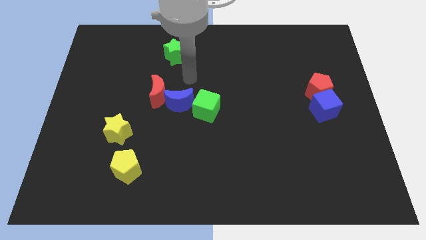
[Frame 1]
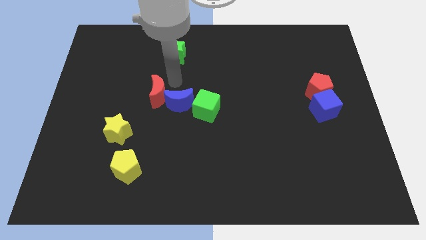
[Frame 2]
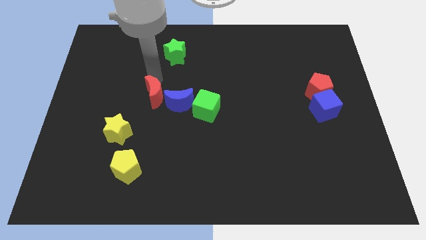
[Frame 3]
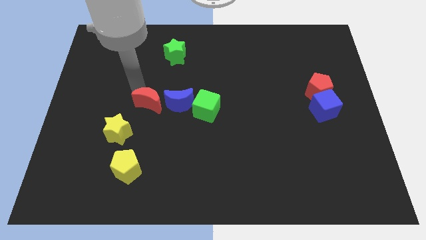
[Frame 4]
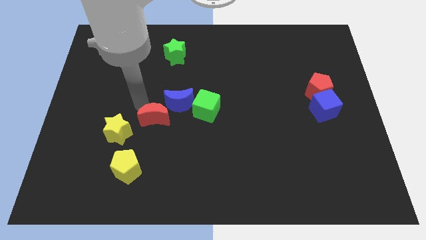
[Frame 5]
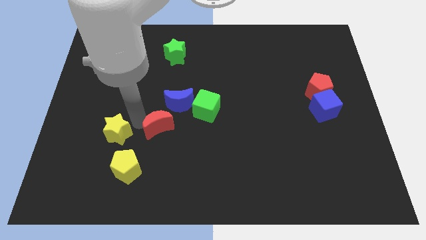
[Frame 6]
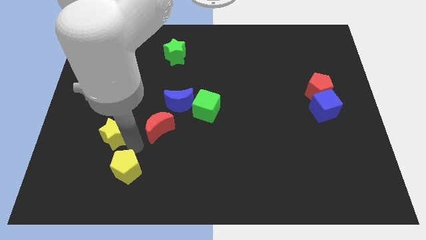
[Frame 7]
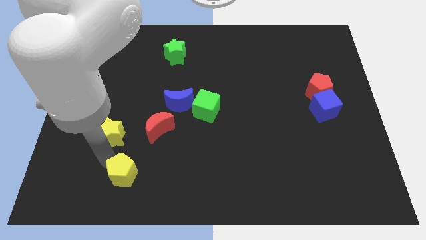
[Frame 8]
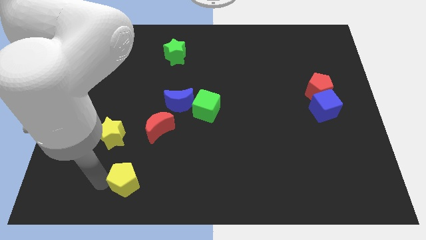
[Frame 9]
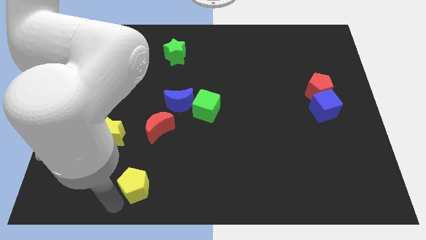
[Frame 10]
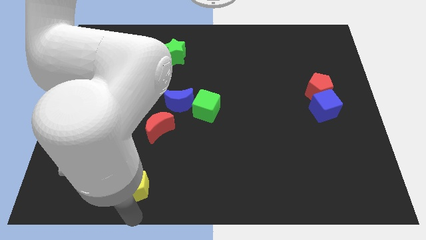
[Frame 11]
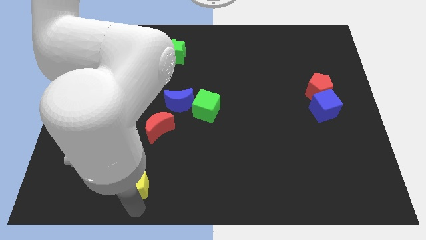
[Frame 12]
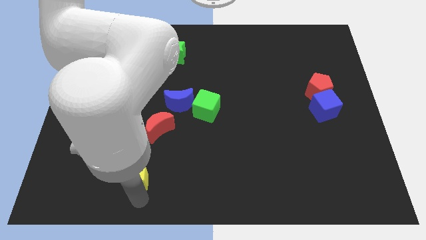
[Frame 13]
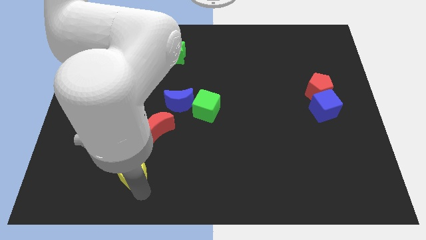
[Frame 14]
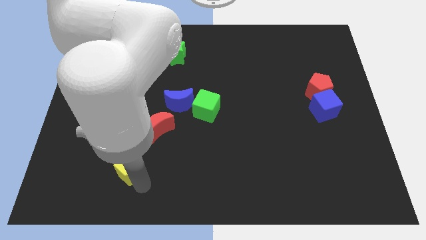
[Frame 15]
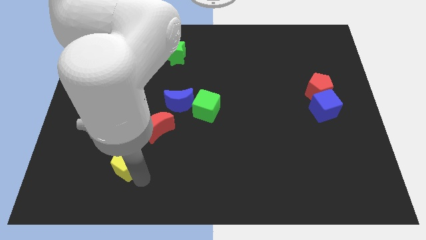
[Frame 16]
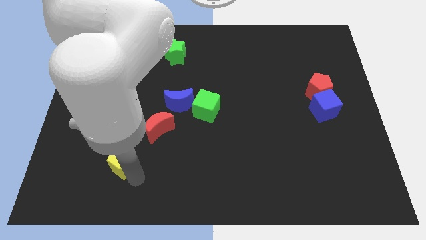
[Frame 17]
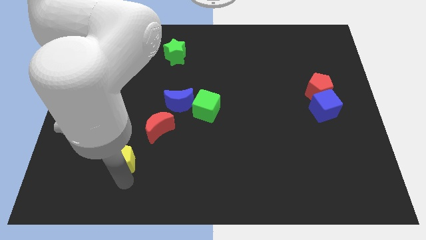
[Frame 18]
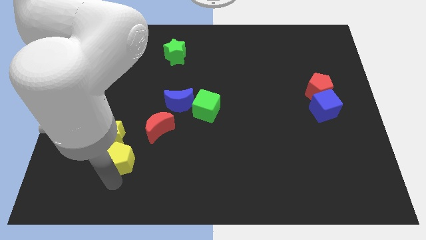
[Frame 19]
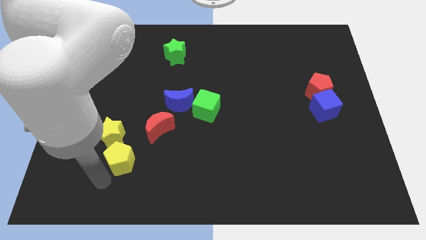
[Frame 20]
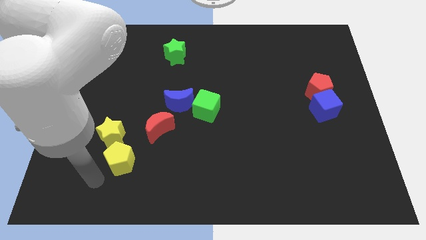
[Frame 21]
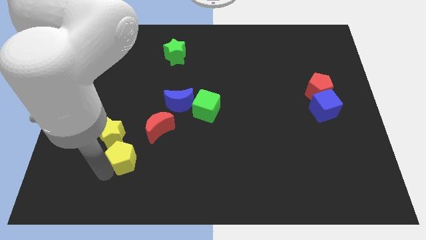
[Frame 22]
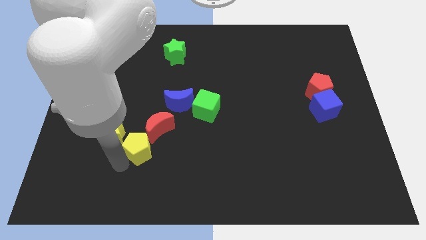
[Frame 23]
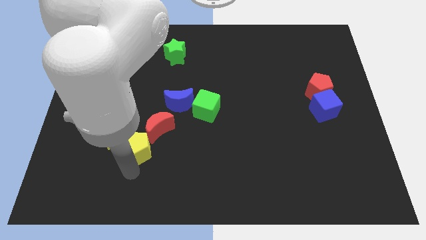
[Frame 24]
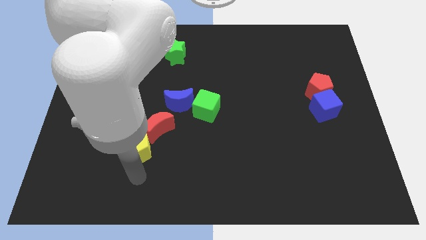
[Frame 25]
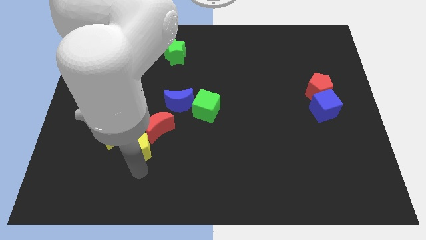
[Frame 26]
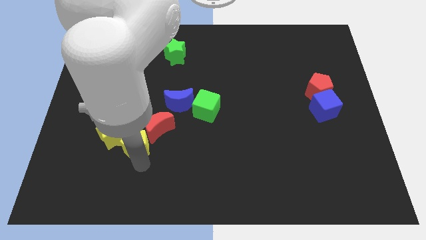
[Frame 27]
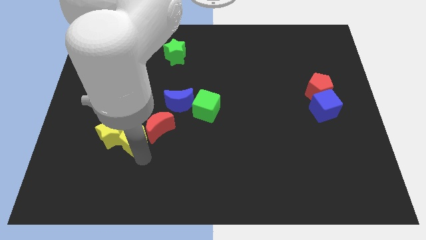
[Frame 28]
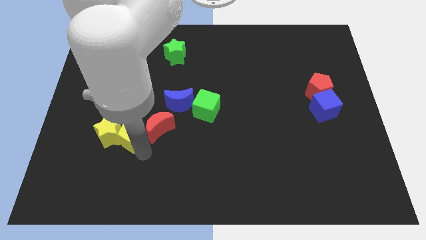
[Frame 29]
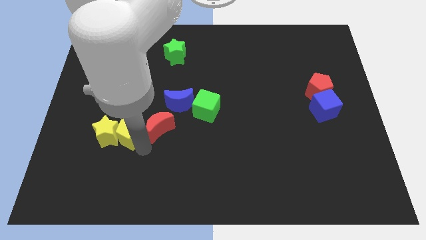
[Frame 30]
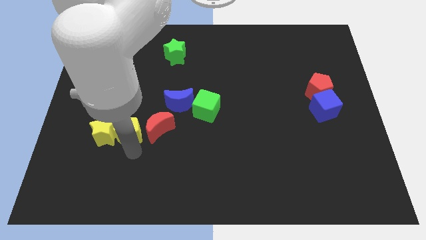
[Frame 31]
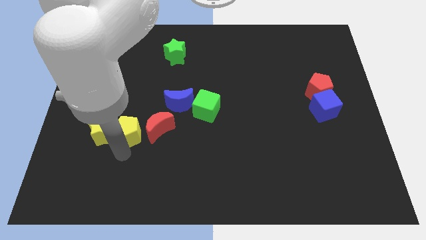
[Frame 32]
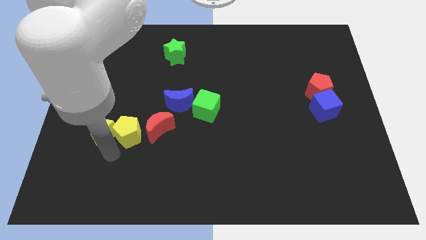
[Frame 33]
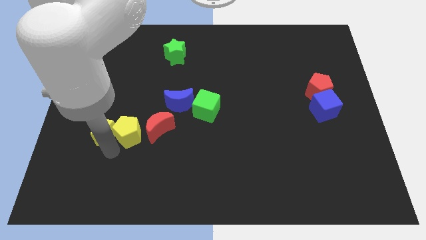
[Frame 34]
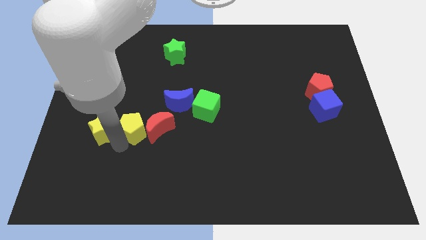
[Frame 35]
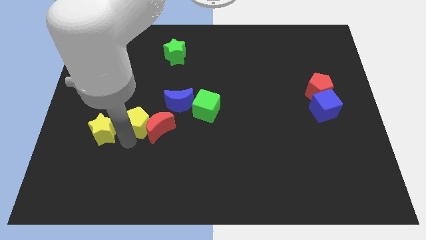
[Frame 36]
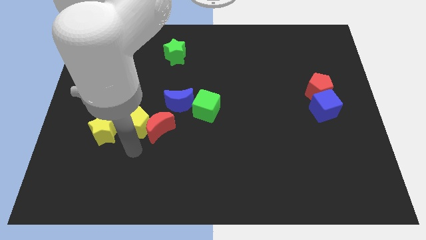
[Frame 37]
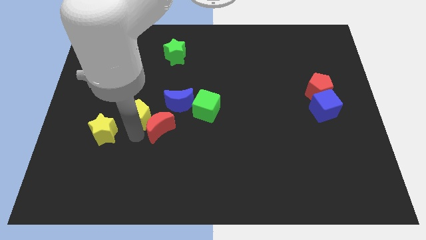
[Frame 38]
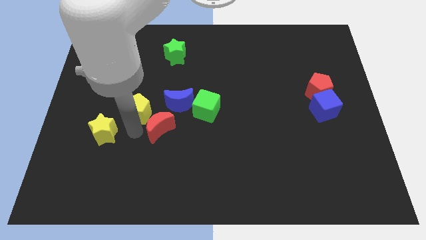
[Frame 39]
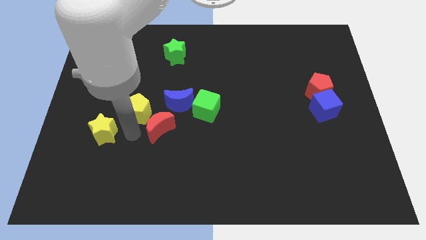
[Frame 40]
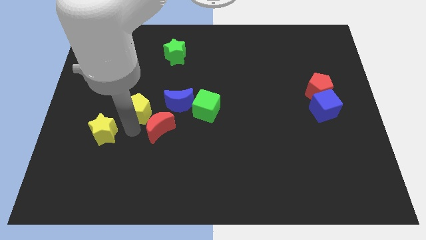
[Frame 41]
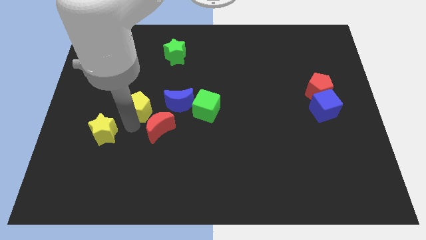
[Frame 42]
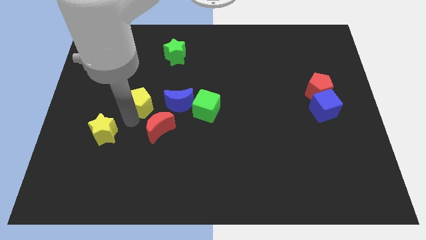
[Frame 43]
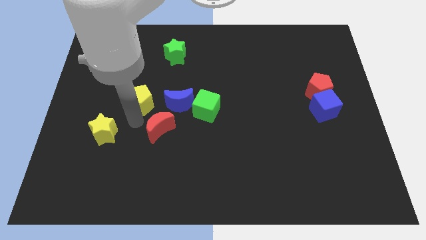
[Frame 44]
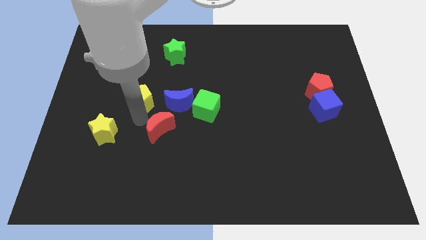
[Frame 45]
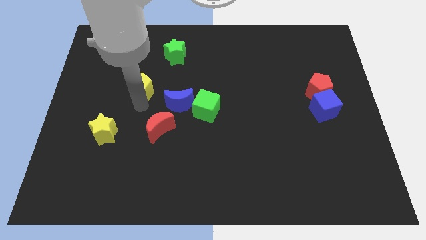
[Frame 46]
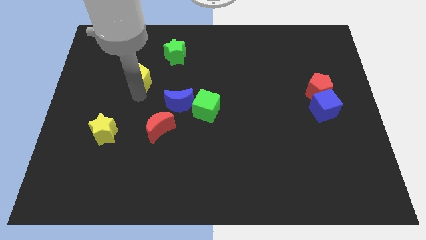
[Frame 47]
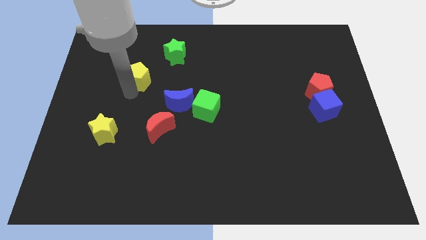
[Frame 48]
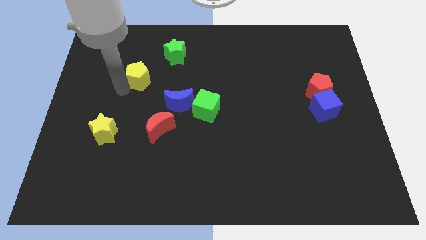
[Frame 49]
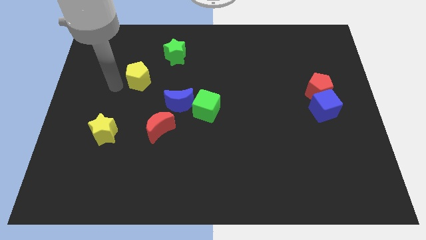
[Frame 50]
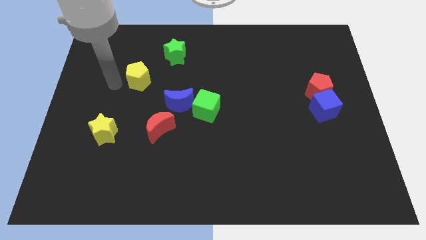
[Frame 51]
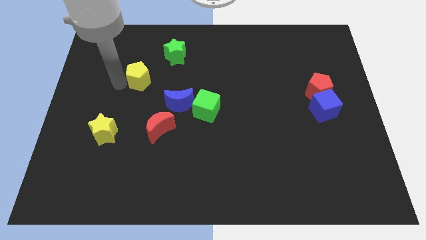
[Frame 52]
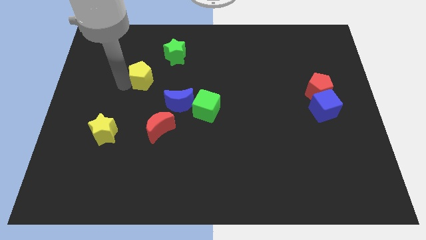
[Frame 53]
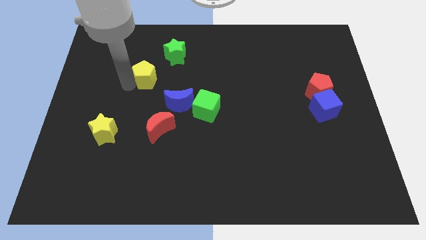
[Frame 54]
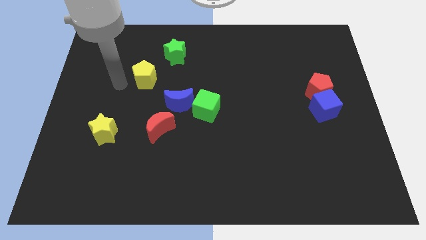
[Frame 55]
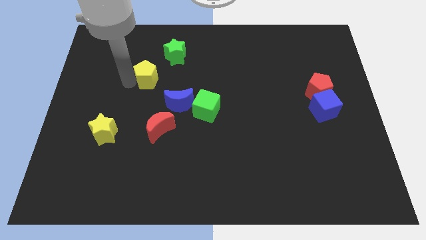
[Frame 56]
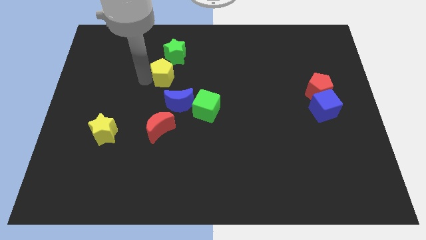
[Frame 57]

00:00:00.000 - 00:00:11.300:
put the yellow pentagon to the top of the blue moon

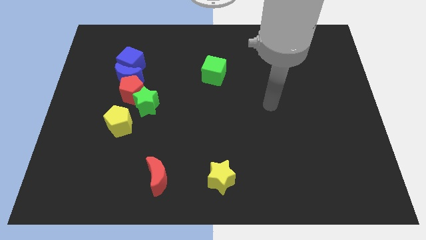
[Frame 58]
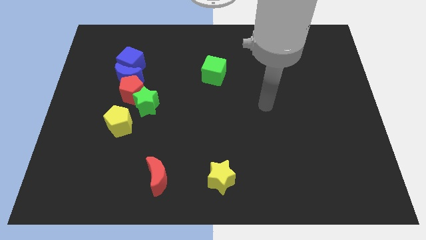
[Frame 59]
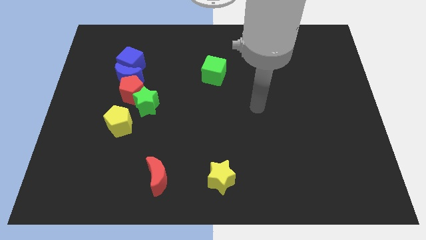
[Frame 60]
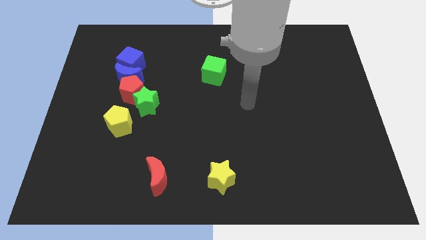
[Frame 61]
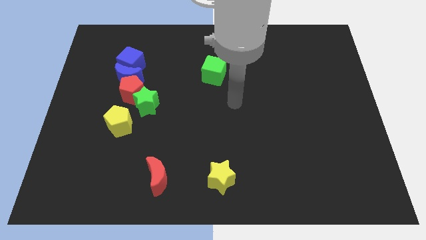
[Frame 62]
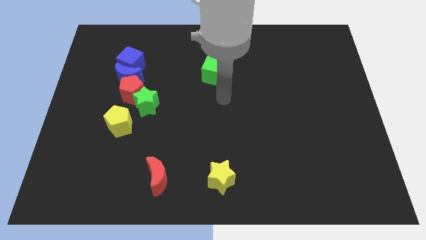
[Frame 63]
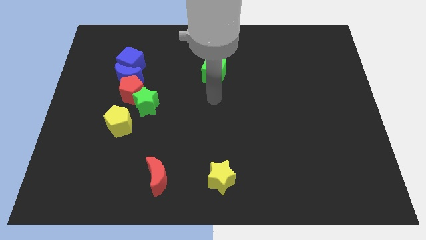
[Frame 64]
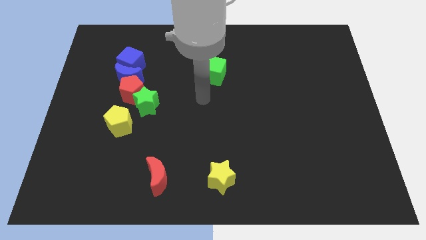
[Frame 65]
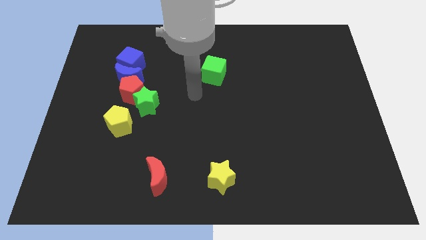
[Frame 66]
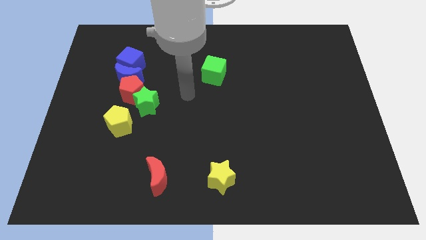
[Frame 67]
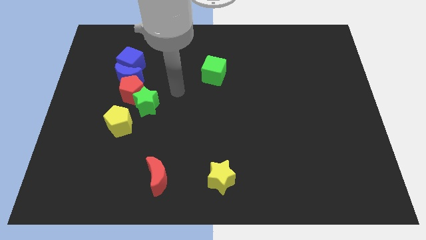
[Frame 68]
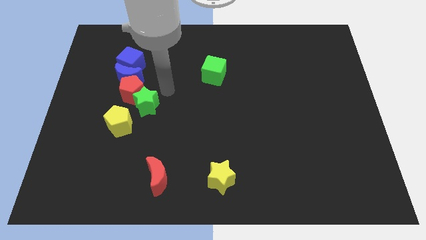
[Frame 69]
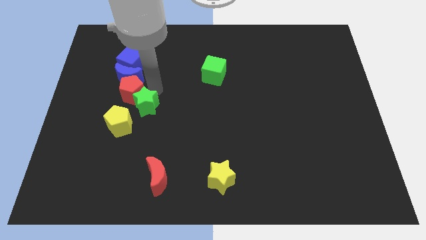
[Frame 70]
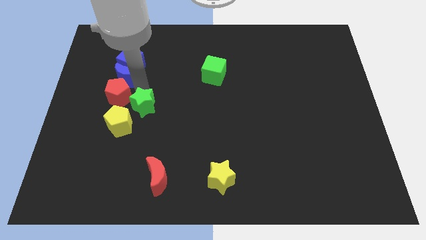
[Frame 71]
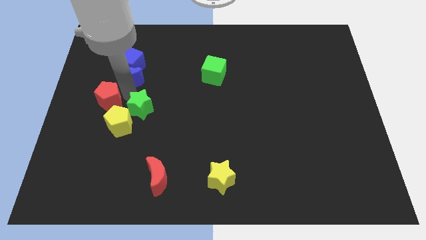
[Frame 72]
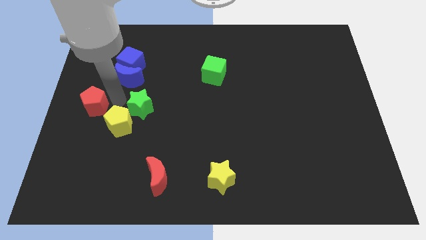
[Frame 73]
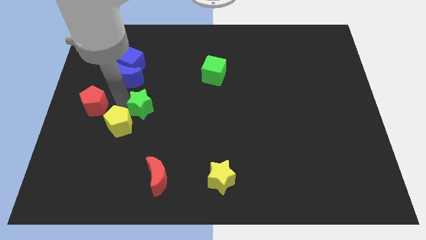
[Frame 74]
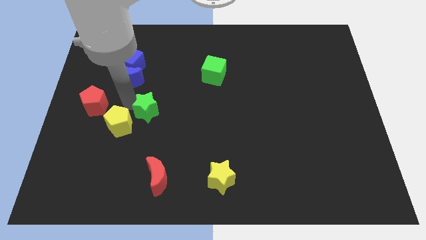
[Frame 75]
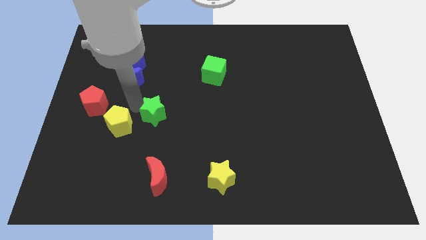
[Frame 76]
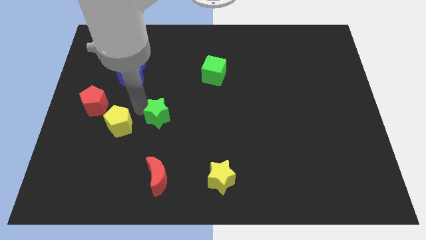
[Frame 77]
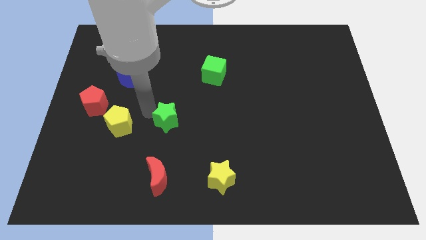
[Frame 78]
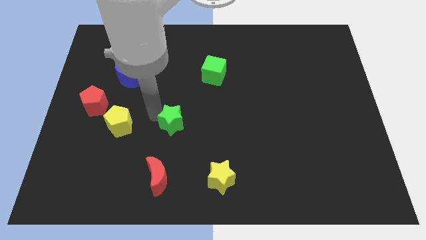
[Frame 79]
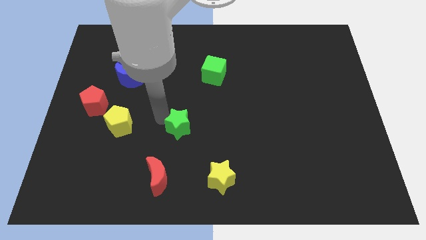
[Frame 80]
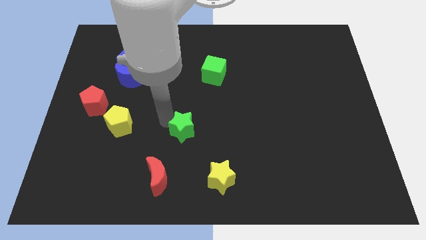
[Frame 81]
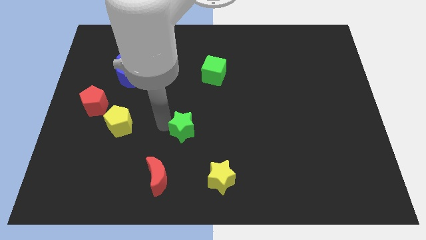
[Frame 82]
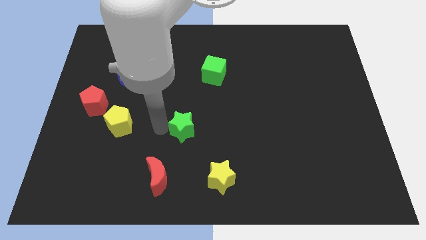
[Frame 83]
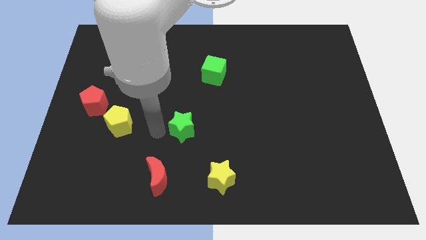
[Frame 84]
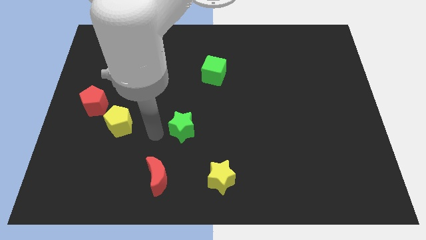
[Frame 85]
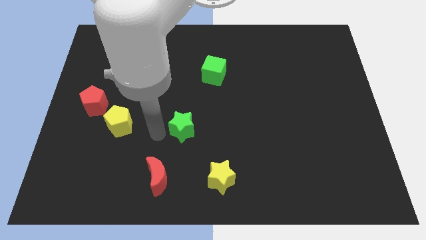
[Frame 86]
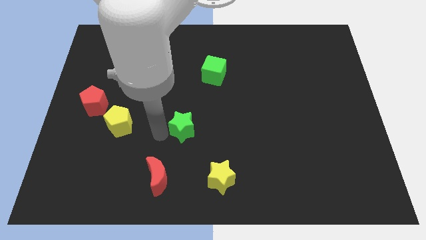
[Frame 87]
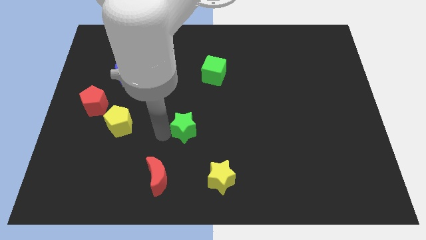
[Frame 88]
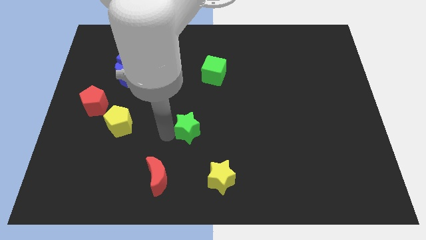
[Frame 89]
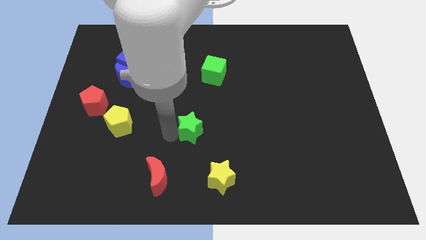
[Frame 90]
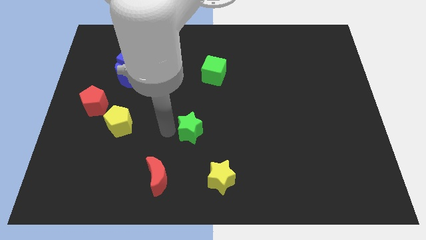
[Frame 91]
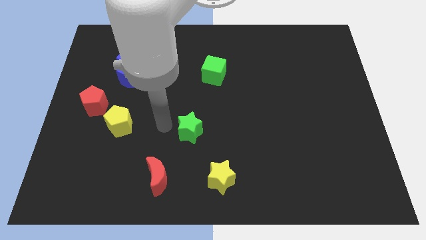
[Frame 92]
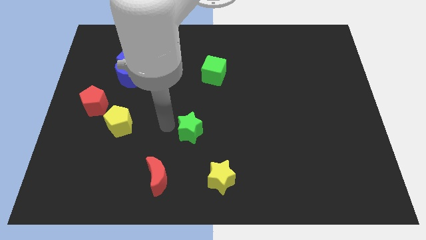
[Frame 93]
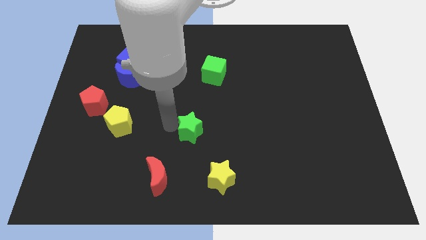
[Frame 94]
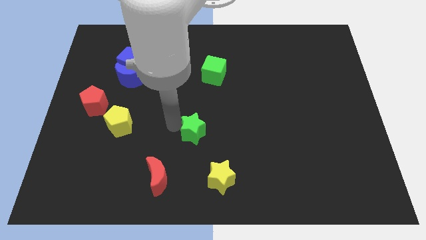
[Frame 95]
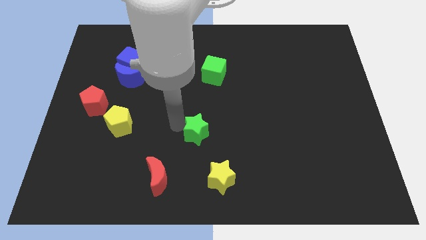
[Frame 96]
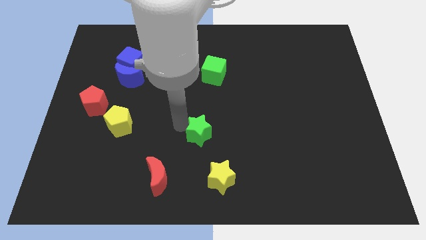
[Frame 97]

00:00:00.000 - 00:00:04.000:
put the green star to the top side of the yellow star
